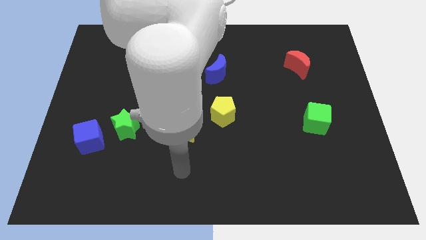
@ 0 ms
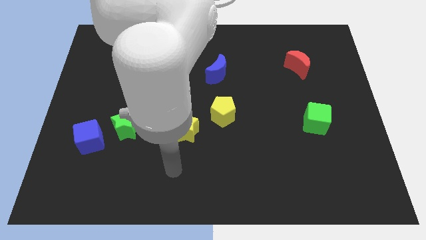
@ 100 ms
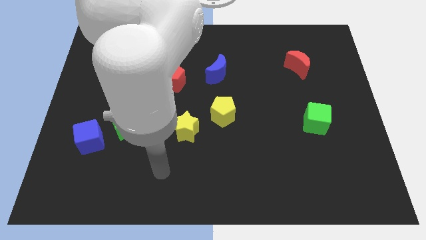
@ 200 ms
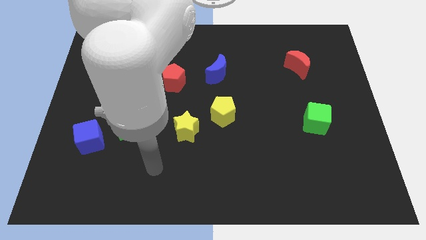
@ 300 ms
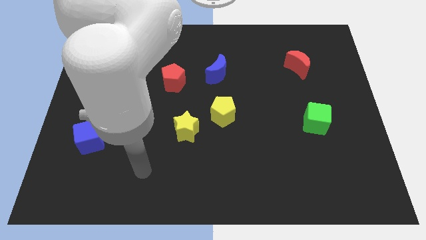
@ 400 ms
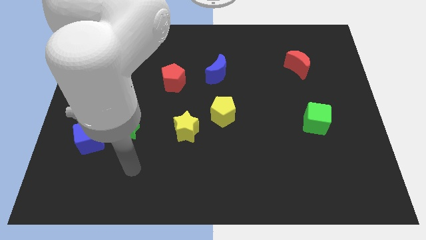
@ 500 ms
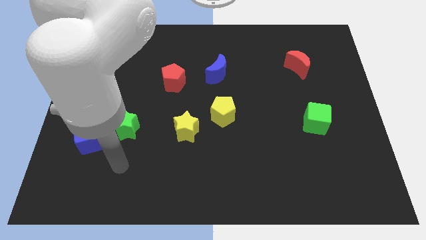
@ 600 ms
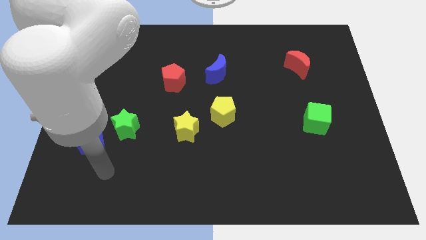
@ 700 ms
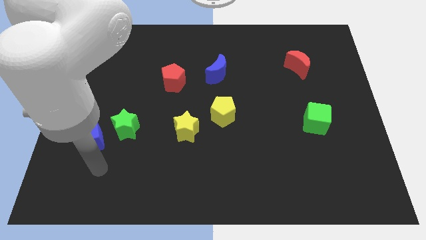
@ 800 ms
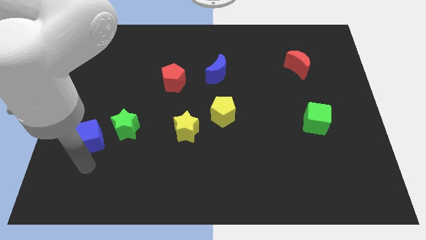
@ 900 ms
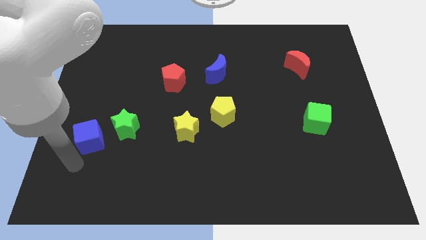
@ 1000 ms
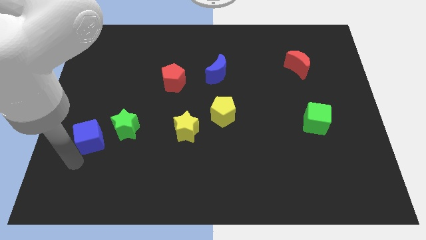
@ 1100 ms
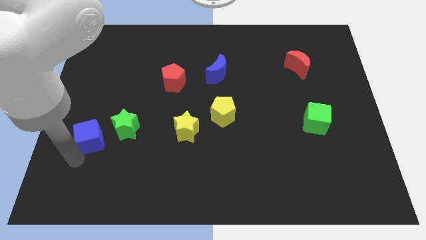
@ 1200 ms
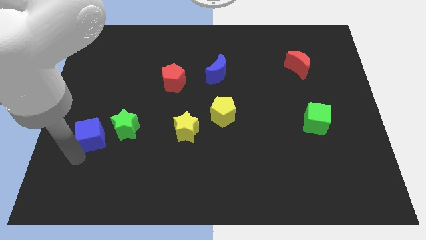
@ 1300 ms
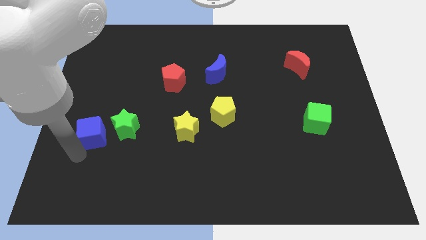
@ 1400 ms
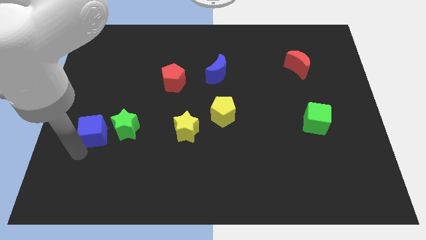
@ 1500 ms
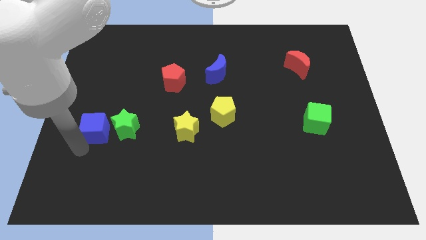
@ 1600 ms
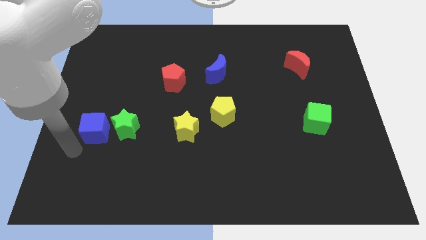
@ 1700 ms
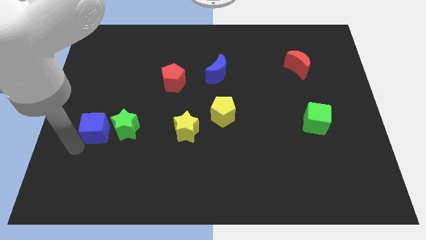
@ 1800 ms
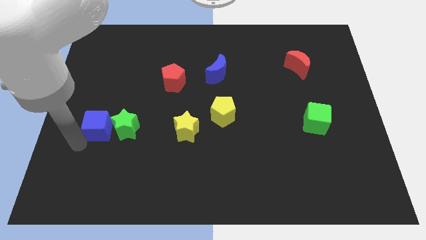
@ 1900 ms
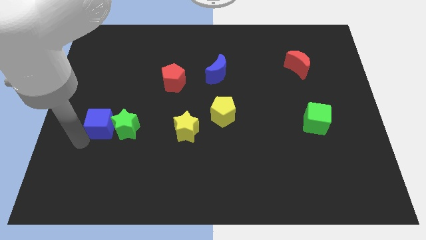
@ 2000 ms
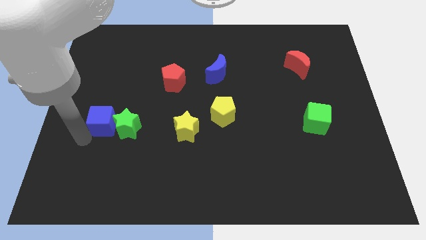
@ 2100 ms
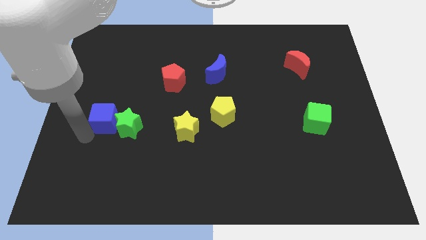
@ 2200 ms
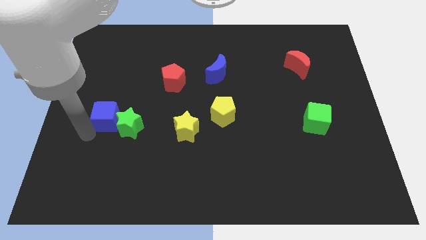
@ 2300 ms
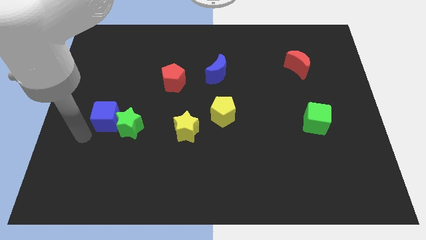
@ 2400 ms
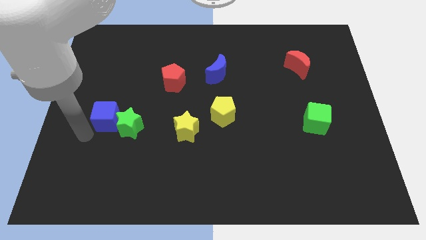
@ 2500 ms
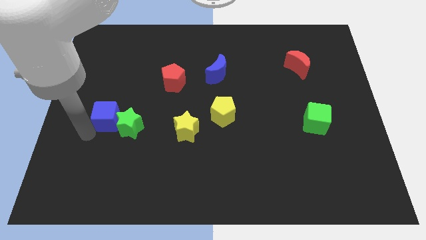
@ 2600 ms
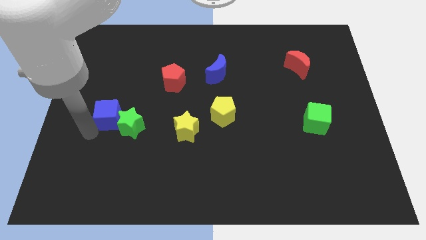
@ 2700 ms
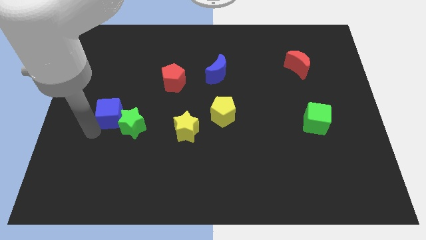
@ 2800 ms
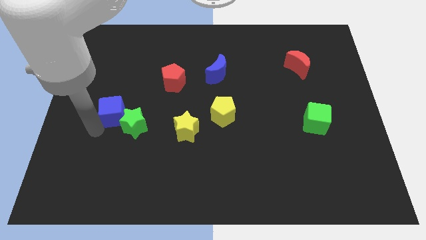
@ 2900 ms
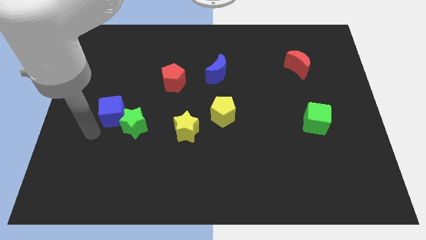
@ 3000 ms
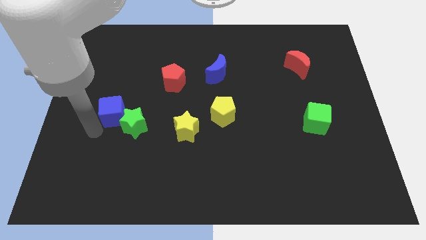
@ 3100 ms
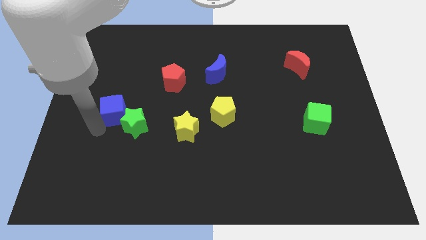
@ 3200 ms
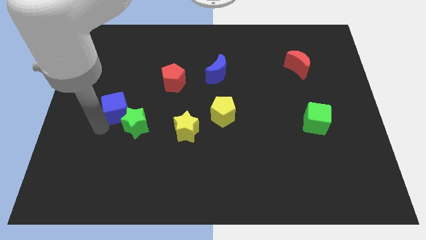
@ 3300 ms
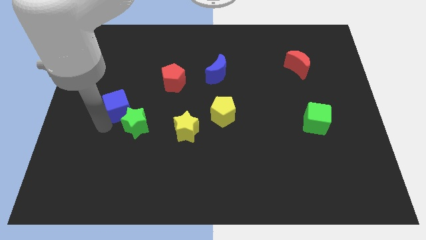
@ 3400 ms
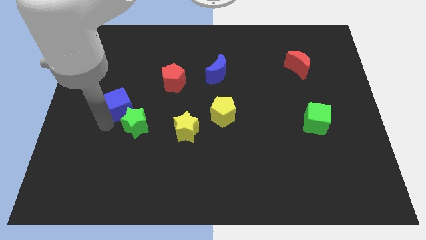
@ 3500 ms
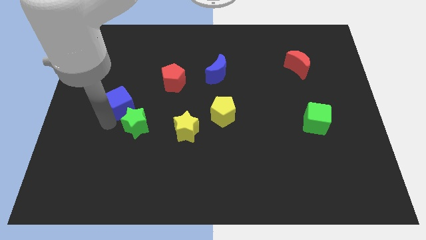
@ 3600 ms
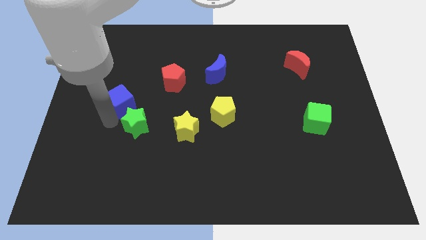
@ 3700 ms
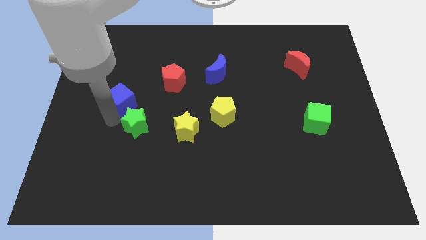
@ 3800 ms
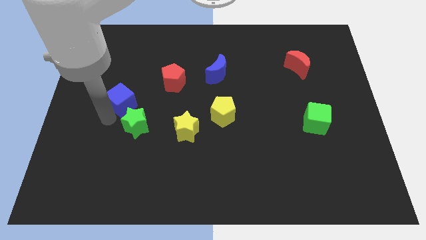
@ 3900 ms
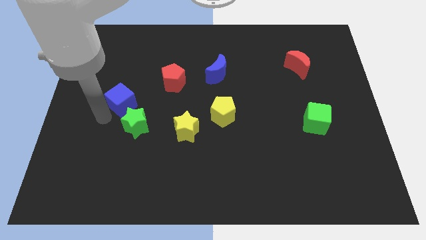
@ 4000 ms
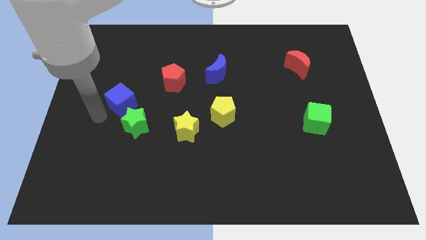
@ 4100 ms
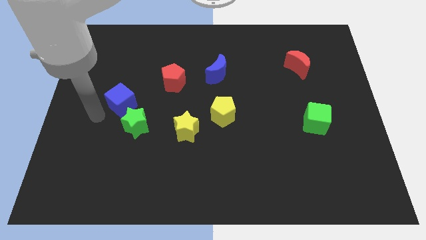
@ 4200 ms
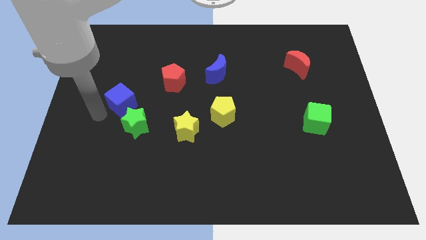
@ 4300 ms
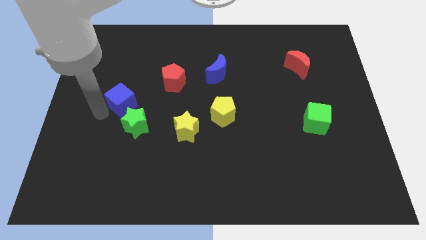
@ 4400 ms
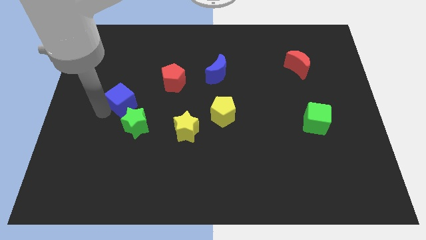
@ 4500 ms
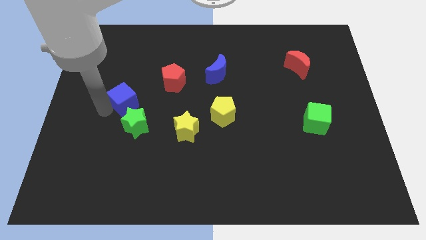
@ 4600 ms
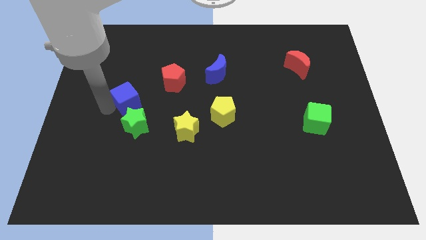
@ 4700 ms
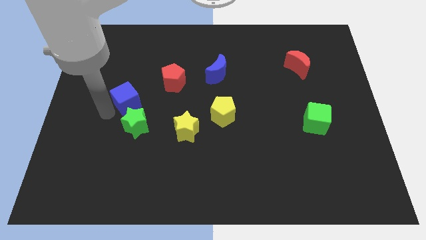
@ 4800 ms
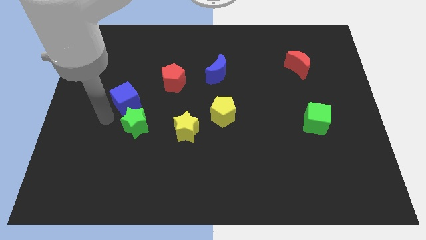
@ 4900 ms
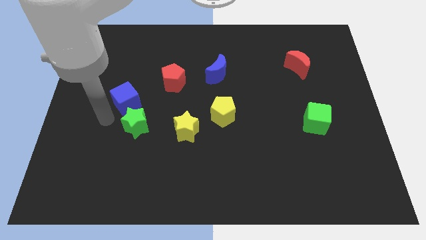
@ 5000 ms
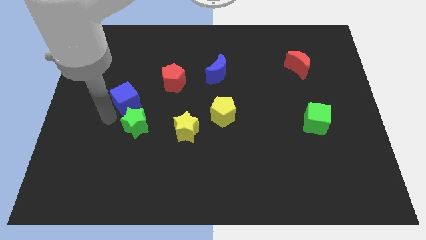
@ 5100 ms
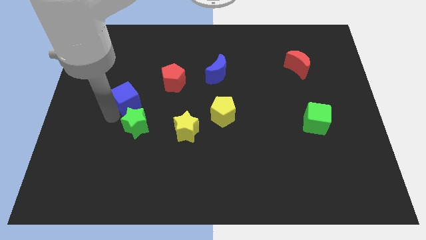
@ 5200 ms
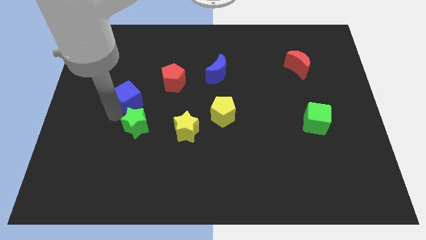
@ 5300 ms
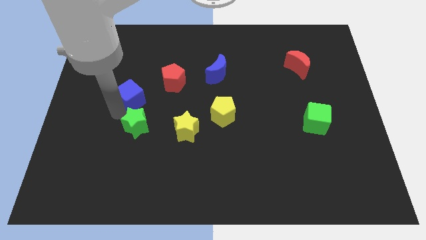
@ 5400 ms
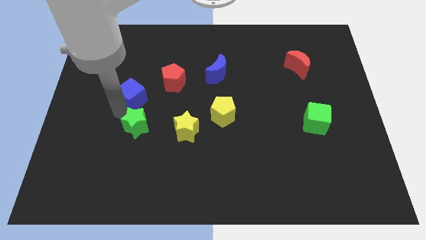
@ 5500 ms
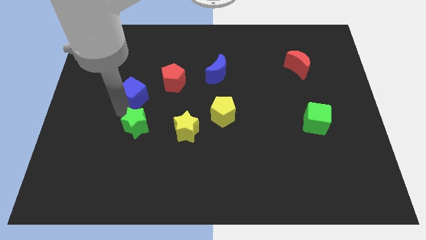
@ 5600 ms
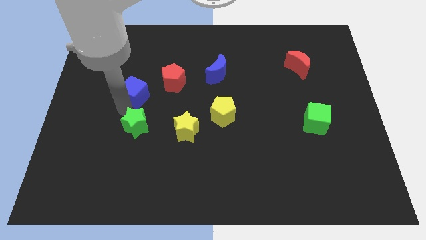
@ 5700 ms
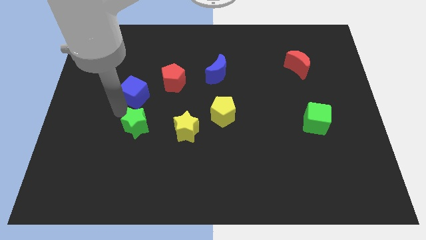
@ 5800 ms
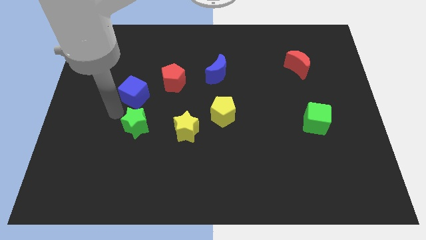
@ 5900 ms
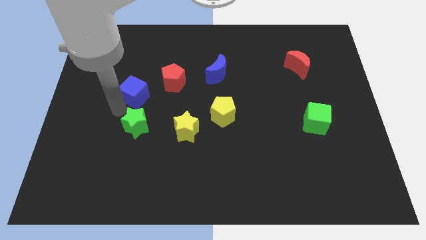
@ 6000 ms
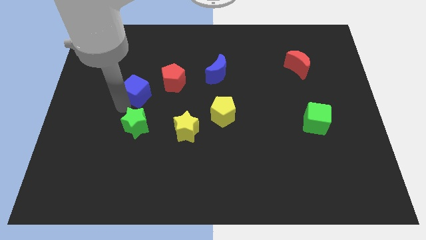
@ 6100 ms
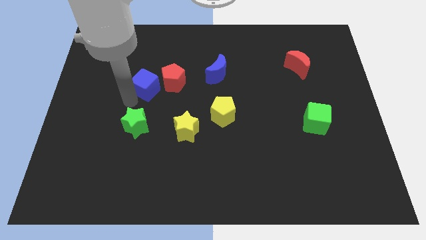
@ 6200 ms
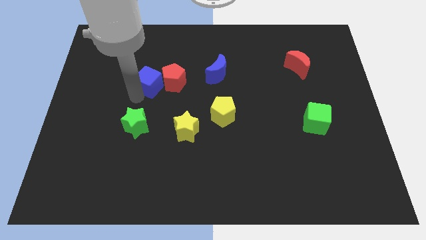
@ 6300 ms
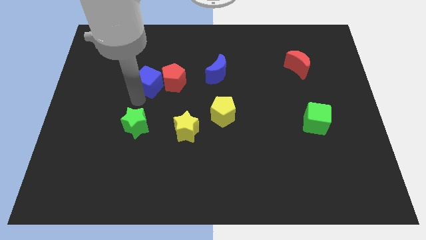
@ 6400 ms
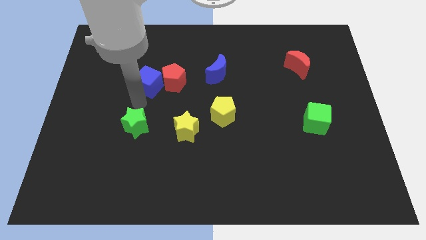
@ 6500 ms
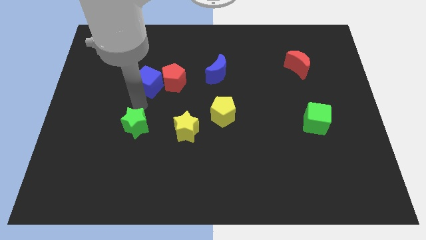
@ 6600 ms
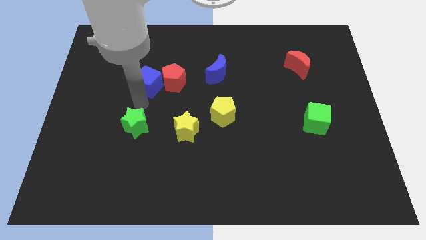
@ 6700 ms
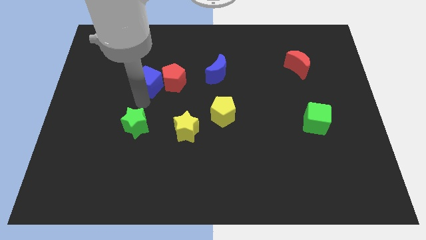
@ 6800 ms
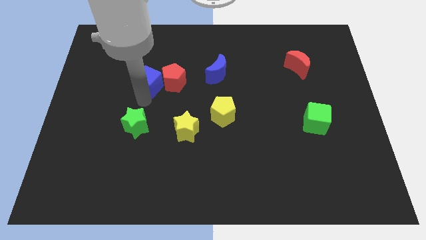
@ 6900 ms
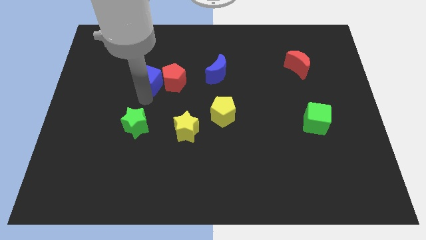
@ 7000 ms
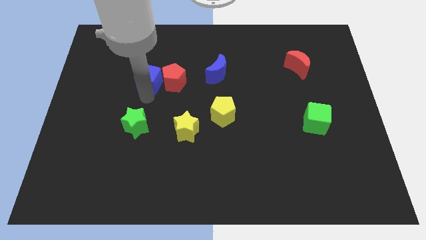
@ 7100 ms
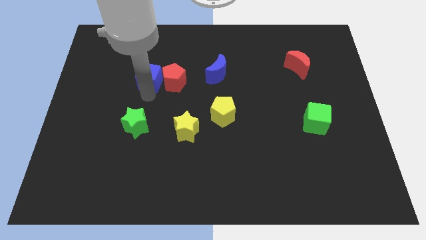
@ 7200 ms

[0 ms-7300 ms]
push the blue cube diagonally up and to the right

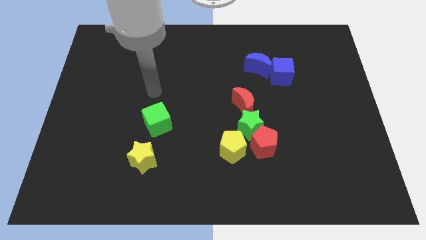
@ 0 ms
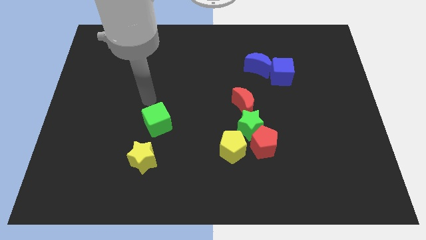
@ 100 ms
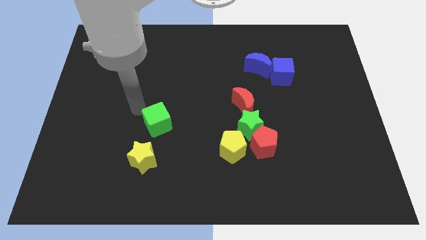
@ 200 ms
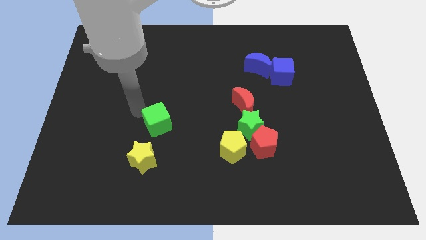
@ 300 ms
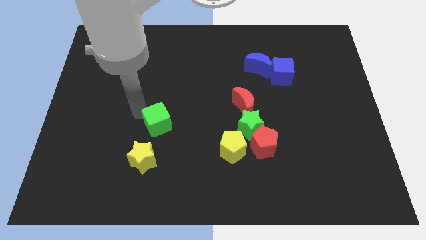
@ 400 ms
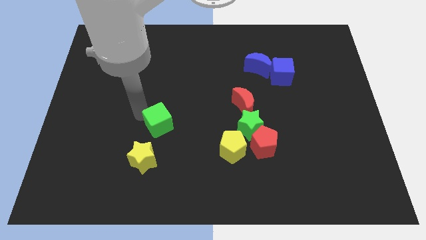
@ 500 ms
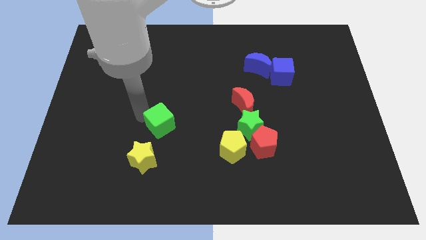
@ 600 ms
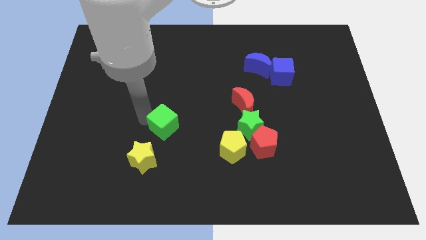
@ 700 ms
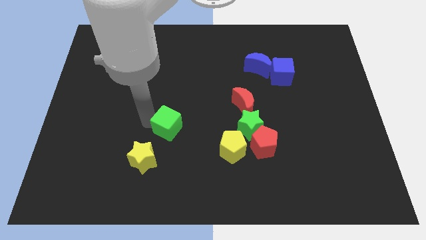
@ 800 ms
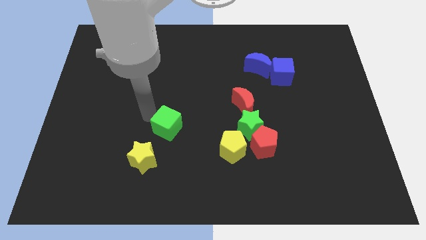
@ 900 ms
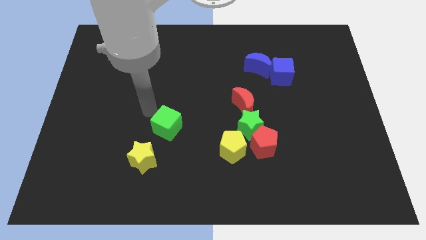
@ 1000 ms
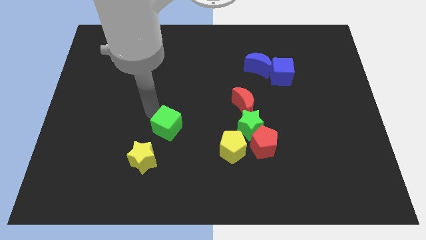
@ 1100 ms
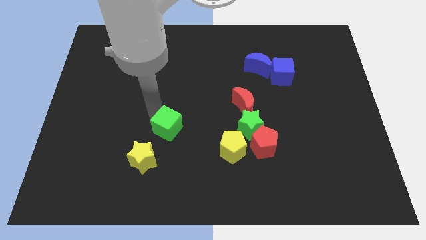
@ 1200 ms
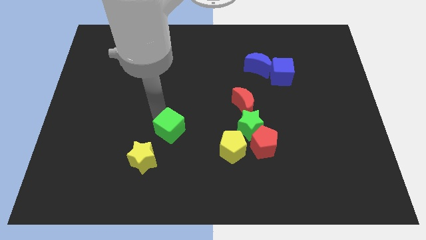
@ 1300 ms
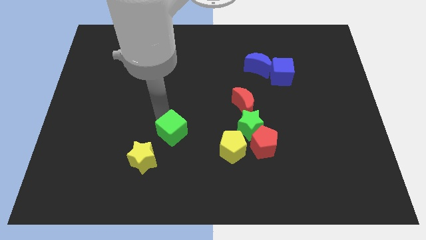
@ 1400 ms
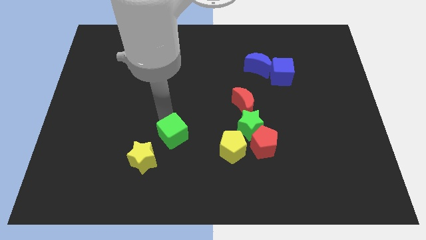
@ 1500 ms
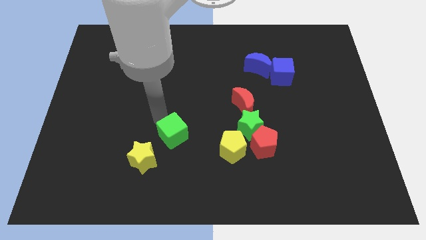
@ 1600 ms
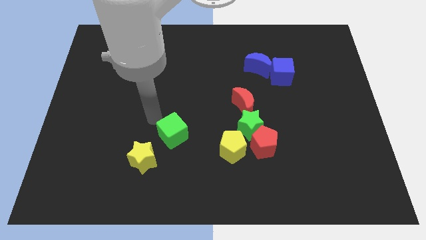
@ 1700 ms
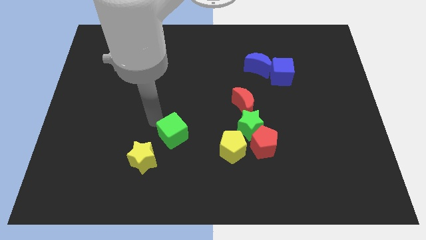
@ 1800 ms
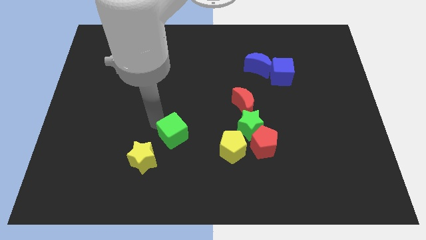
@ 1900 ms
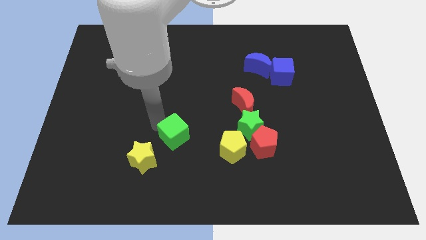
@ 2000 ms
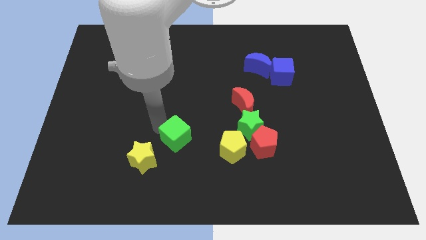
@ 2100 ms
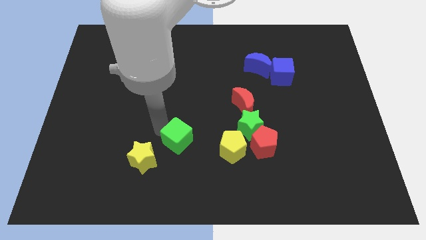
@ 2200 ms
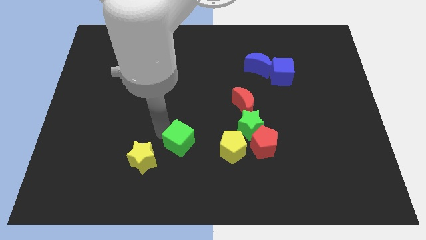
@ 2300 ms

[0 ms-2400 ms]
slightly slide the green cube downwards and to the right diagonally
